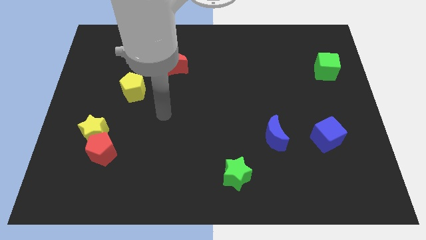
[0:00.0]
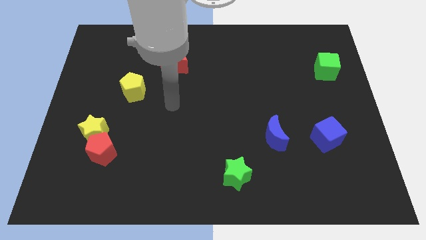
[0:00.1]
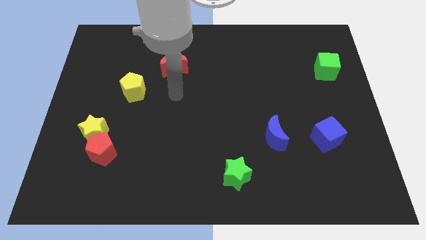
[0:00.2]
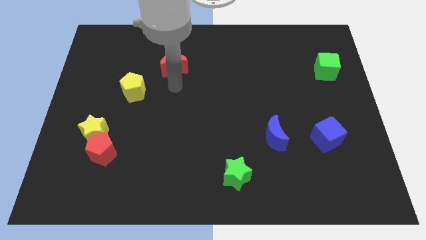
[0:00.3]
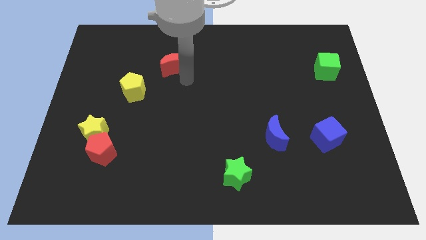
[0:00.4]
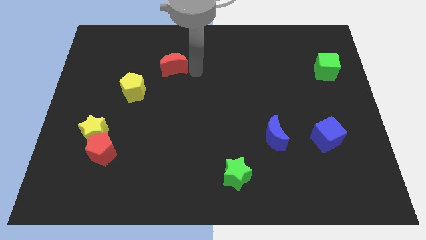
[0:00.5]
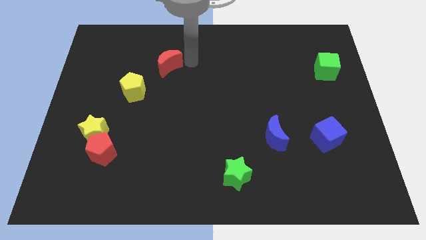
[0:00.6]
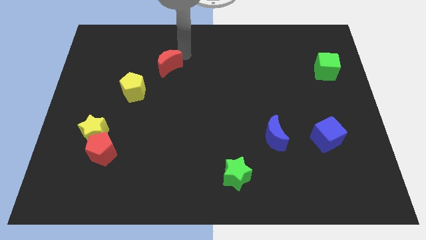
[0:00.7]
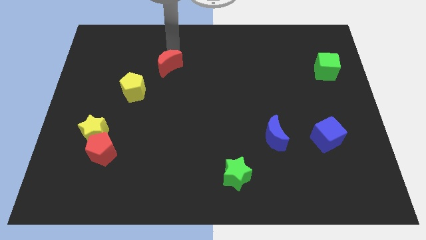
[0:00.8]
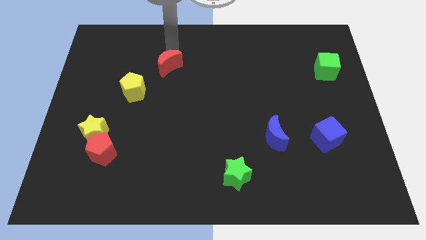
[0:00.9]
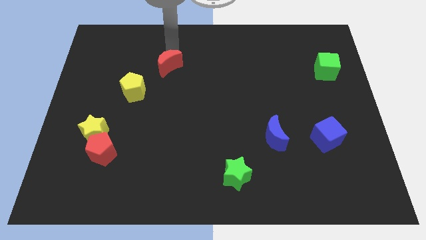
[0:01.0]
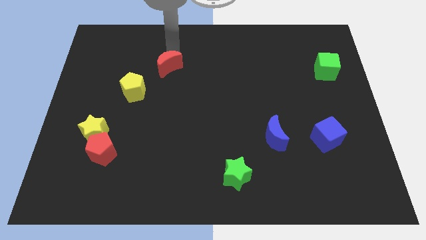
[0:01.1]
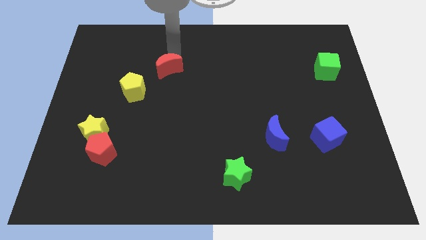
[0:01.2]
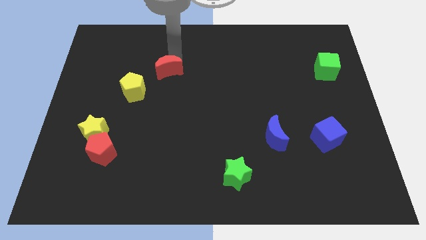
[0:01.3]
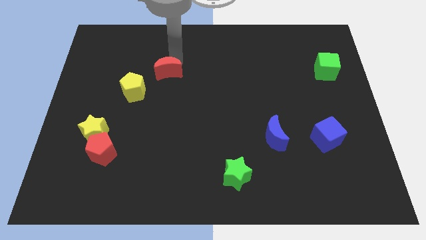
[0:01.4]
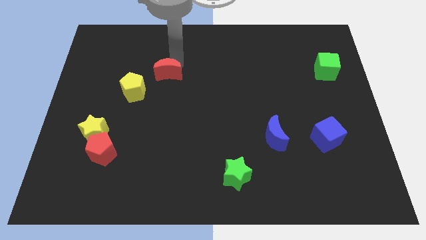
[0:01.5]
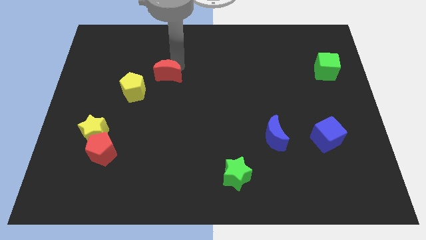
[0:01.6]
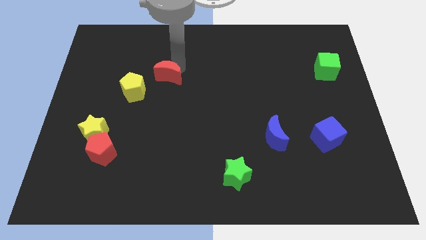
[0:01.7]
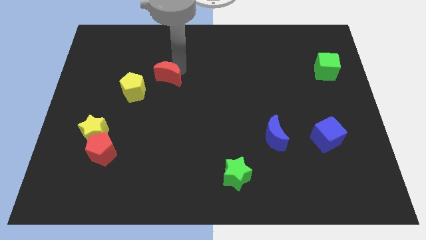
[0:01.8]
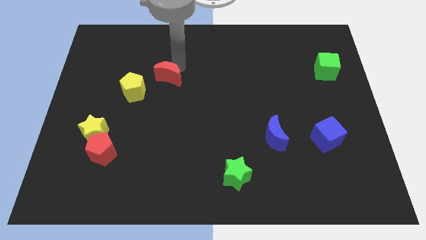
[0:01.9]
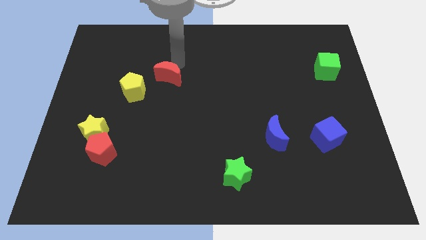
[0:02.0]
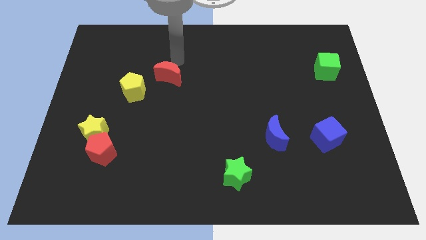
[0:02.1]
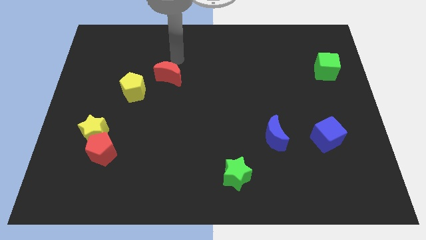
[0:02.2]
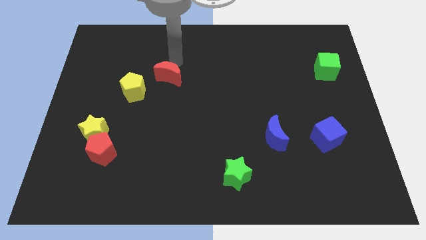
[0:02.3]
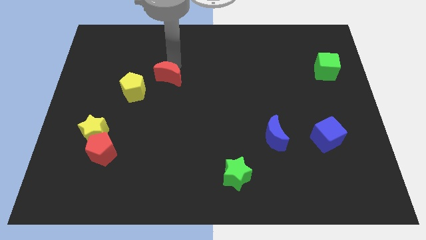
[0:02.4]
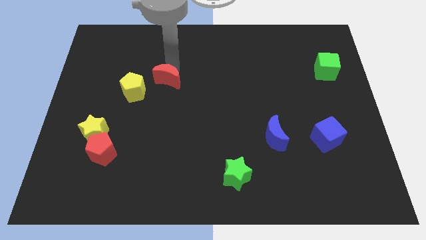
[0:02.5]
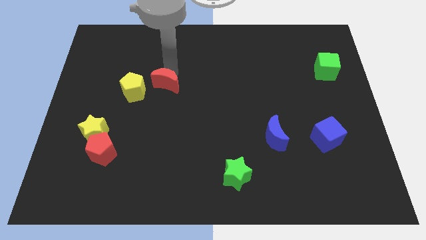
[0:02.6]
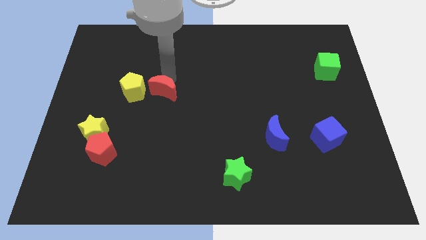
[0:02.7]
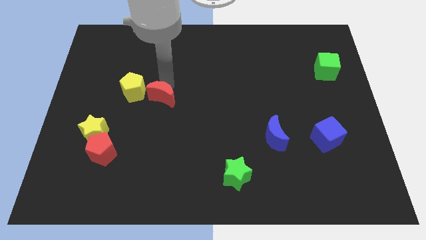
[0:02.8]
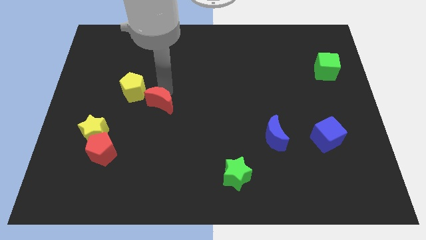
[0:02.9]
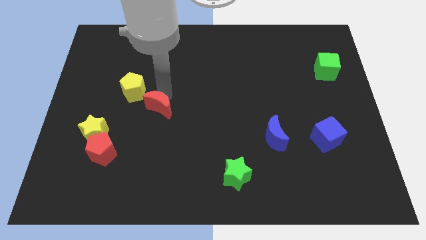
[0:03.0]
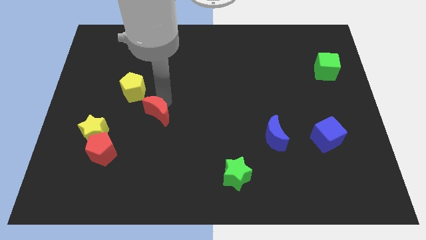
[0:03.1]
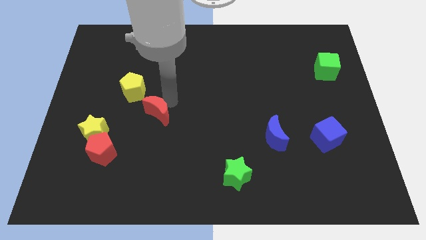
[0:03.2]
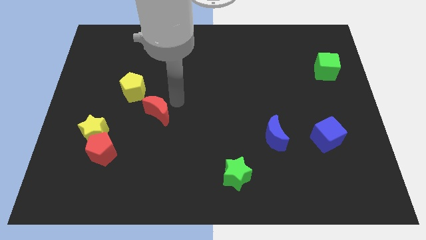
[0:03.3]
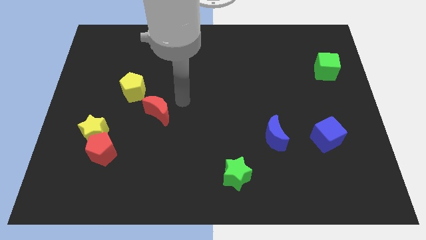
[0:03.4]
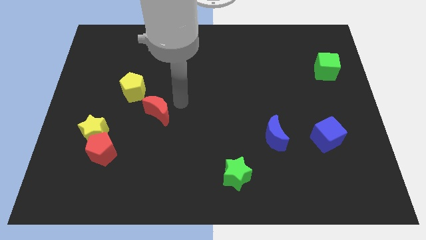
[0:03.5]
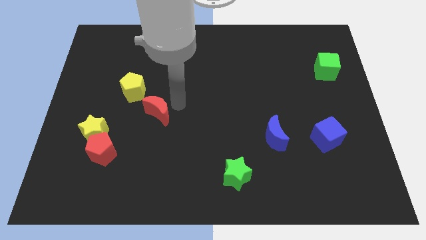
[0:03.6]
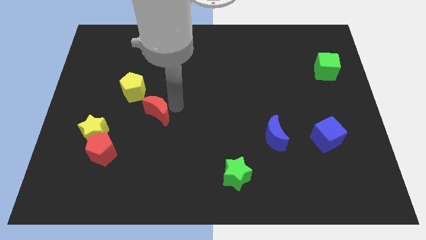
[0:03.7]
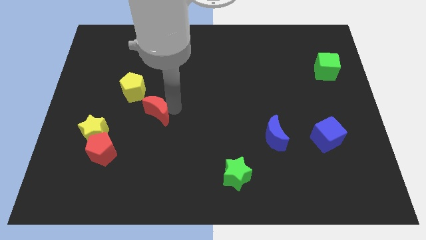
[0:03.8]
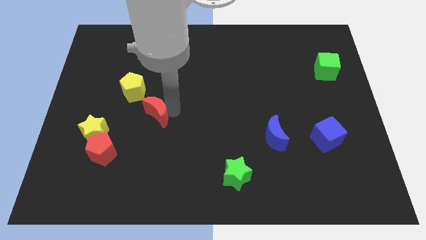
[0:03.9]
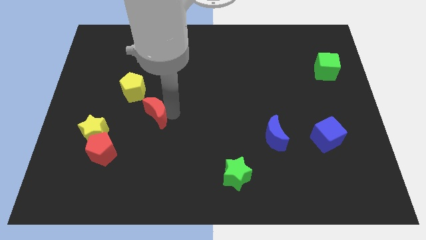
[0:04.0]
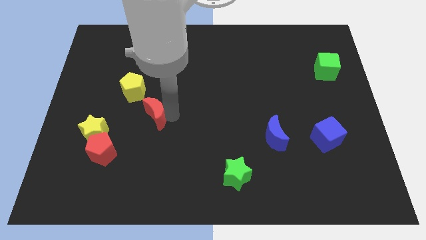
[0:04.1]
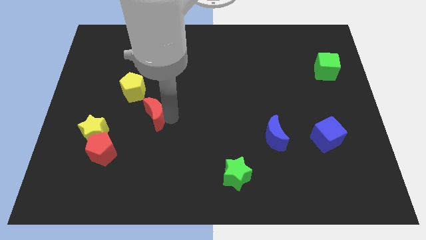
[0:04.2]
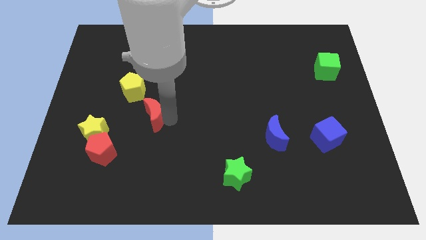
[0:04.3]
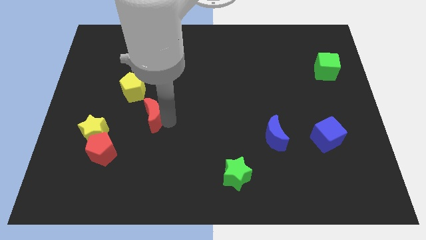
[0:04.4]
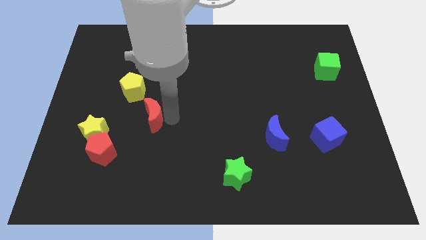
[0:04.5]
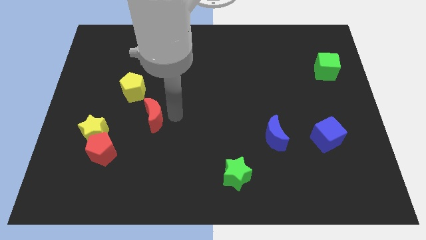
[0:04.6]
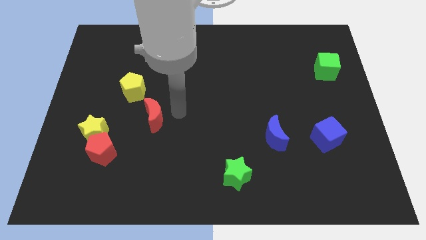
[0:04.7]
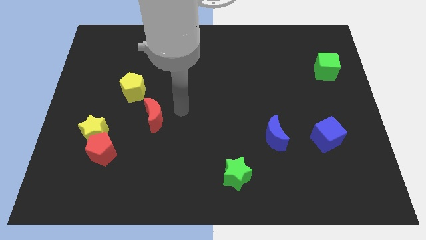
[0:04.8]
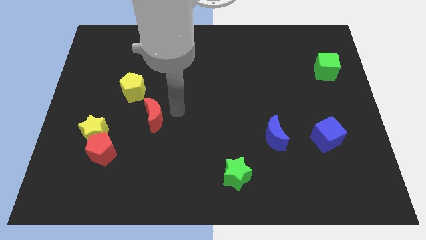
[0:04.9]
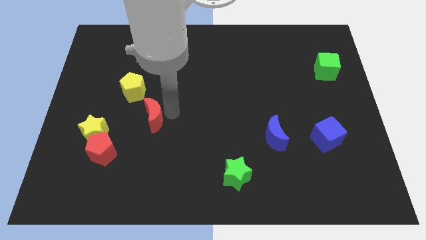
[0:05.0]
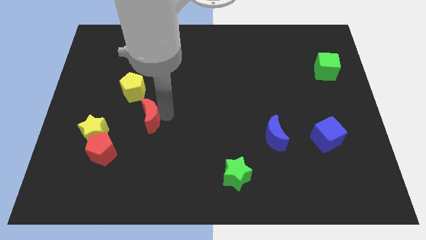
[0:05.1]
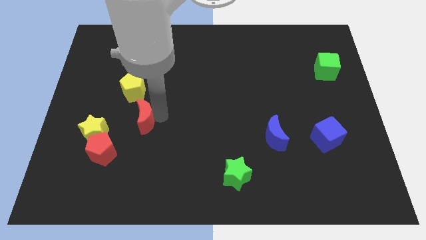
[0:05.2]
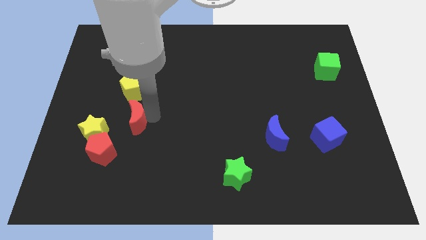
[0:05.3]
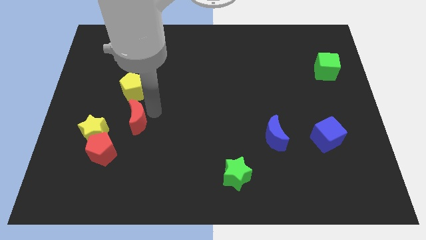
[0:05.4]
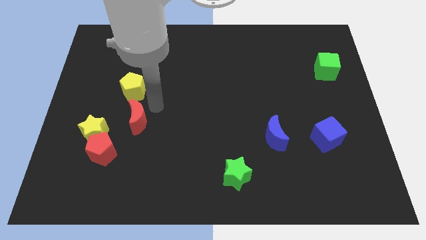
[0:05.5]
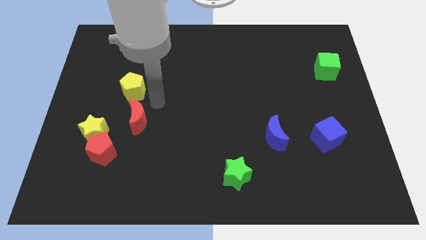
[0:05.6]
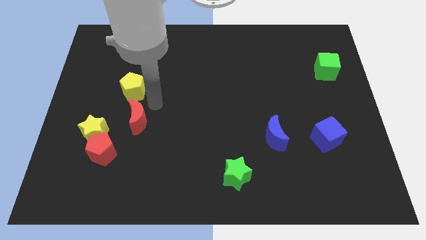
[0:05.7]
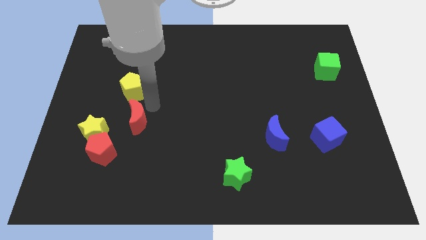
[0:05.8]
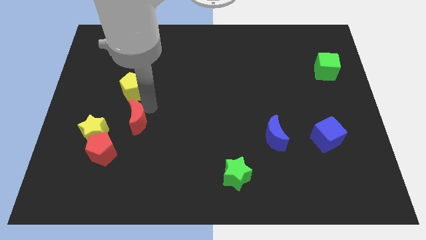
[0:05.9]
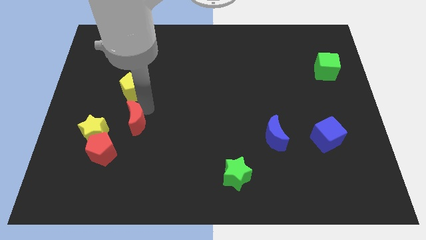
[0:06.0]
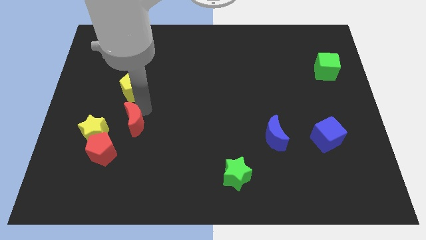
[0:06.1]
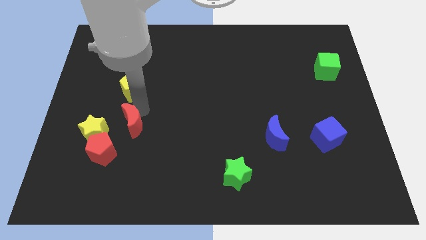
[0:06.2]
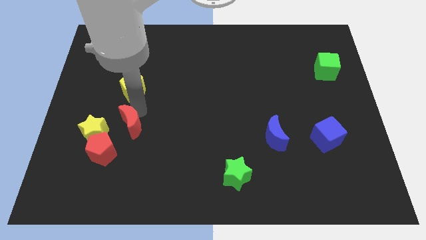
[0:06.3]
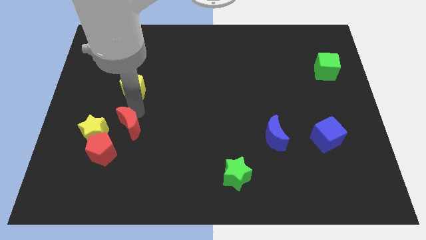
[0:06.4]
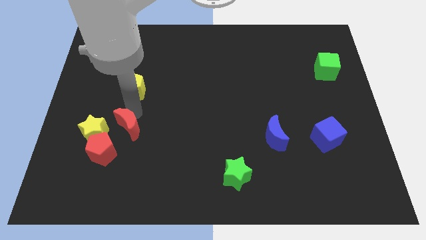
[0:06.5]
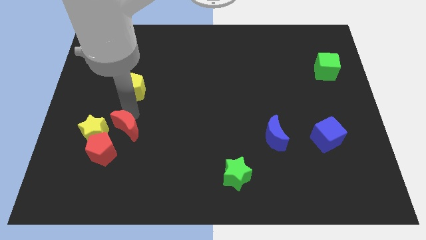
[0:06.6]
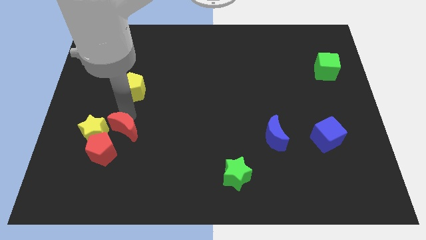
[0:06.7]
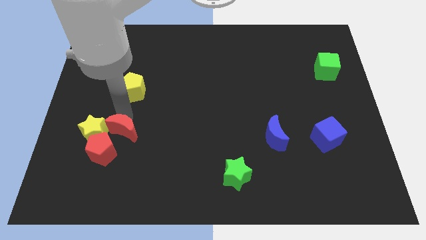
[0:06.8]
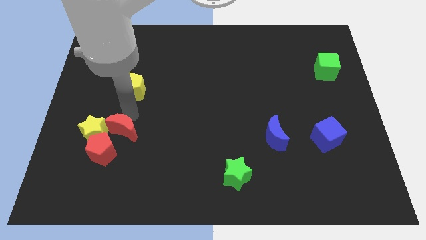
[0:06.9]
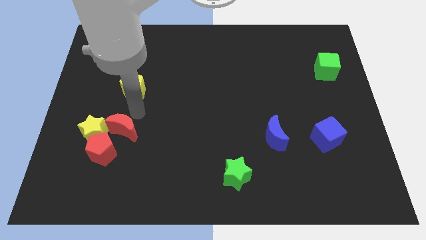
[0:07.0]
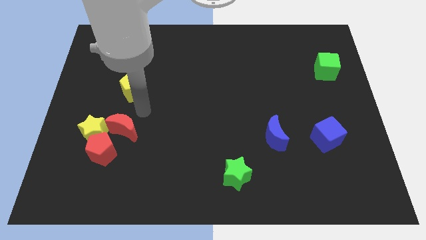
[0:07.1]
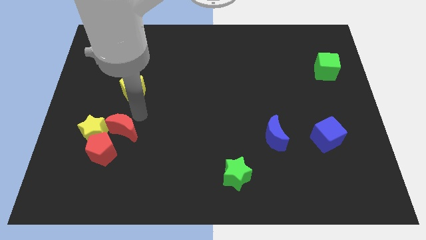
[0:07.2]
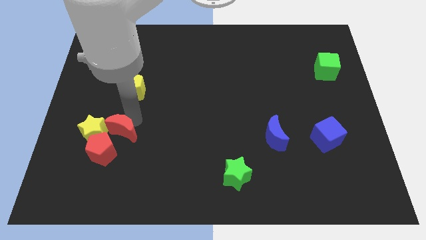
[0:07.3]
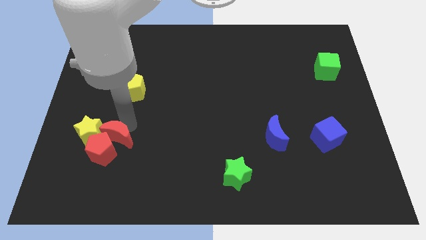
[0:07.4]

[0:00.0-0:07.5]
put the red moon to the red pentagon
